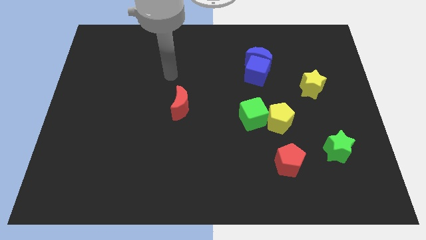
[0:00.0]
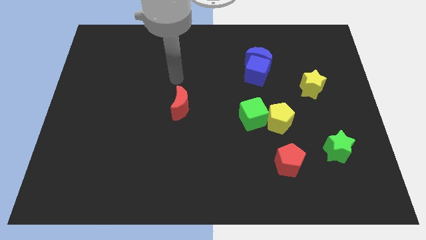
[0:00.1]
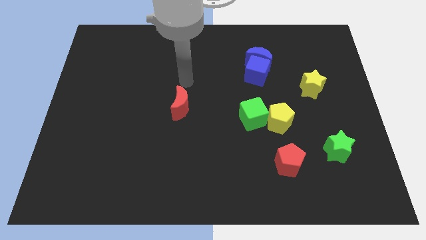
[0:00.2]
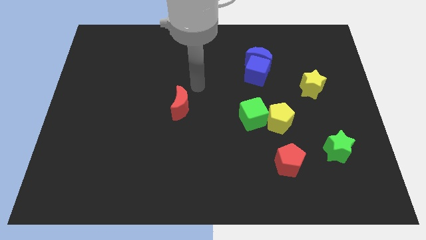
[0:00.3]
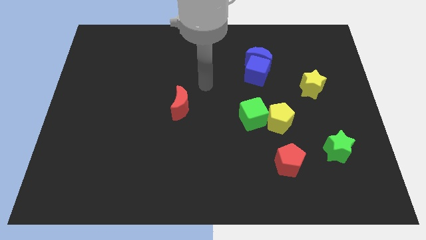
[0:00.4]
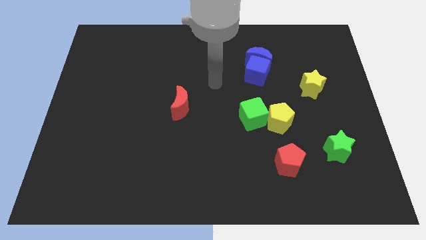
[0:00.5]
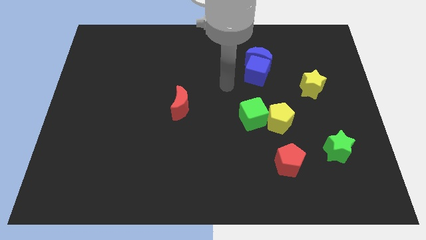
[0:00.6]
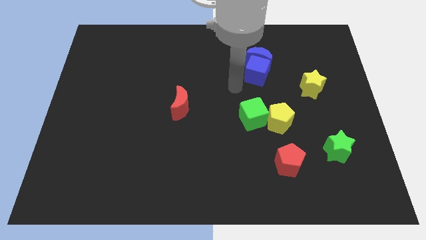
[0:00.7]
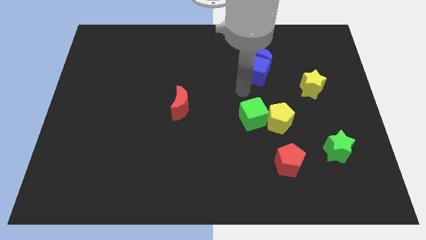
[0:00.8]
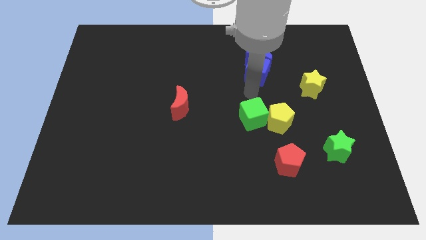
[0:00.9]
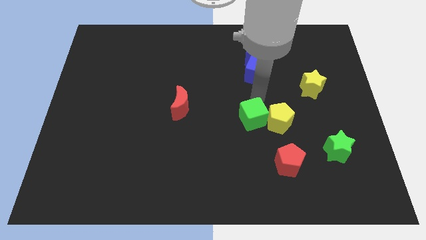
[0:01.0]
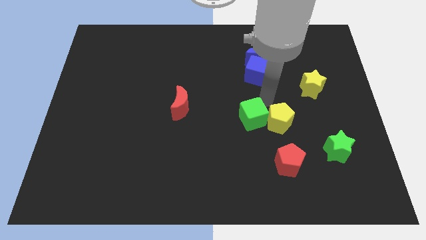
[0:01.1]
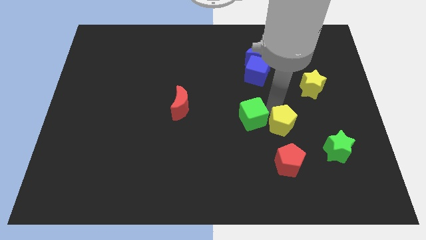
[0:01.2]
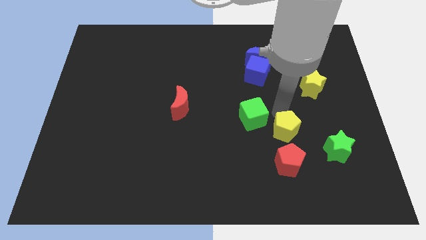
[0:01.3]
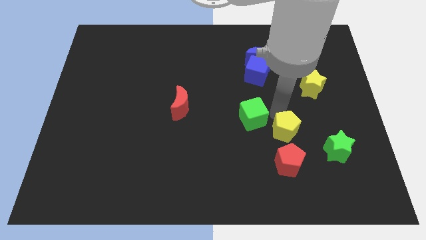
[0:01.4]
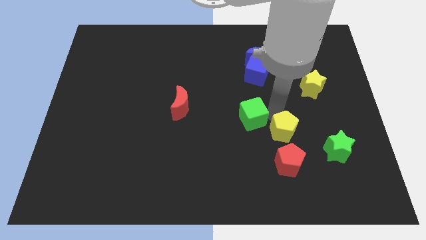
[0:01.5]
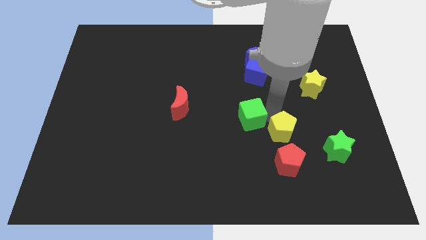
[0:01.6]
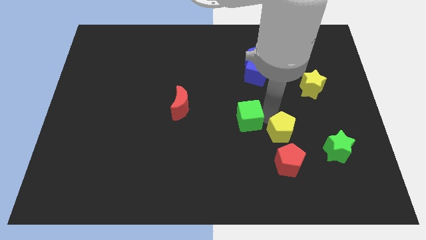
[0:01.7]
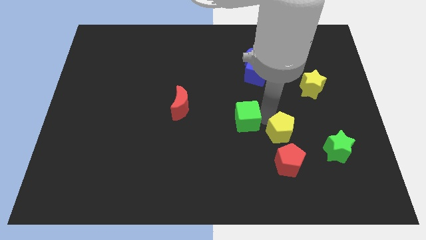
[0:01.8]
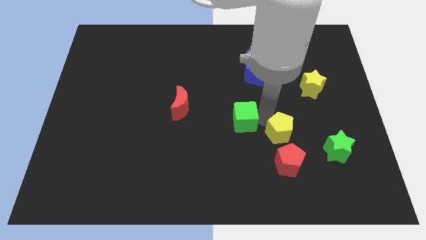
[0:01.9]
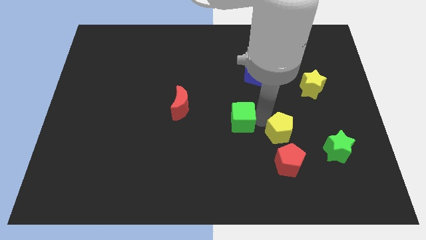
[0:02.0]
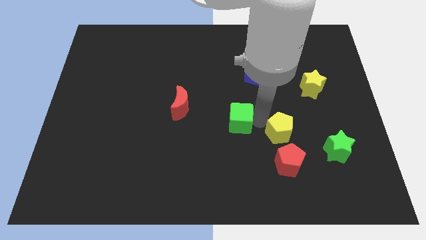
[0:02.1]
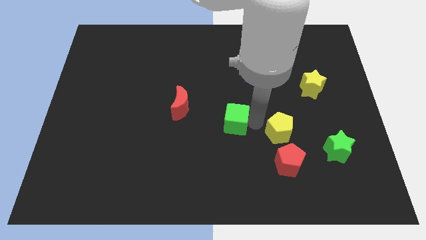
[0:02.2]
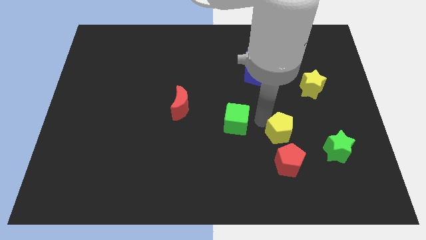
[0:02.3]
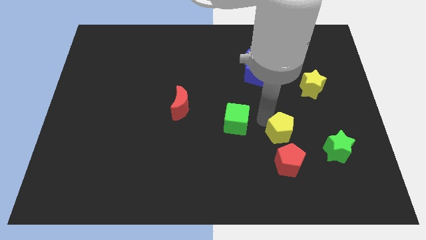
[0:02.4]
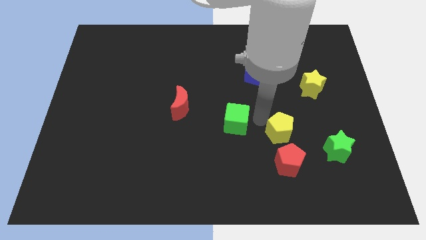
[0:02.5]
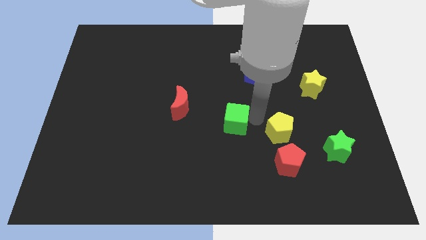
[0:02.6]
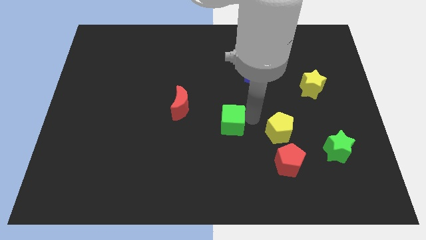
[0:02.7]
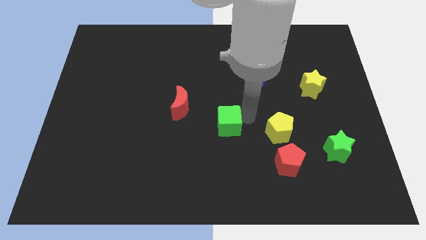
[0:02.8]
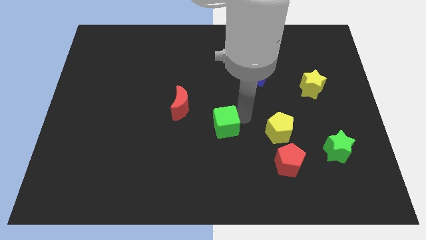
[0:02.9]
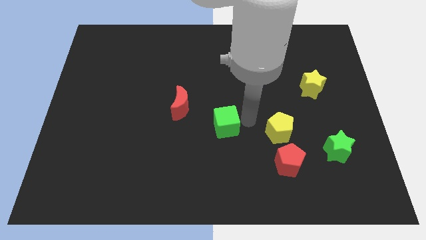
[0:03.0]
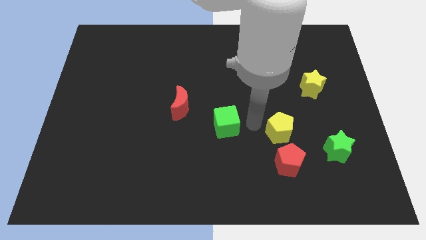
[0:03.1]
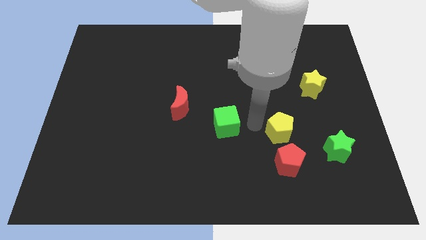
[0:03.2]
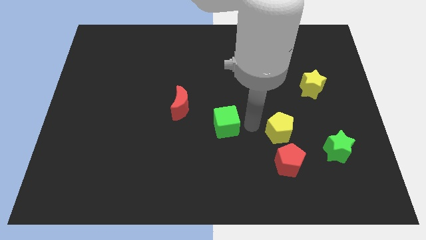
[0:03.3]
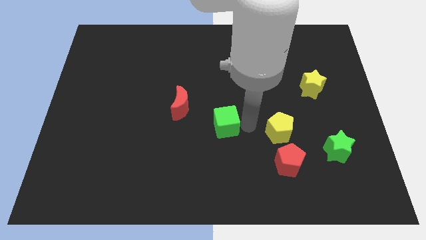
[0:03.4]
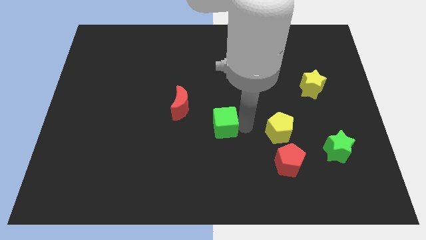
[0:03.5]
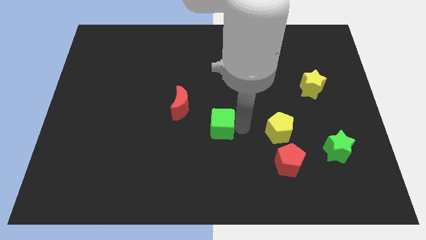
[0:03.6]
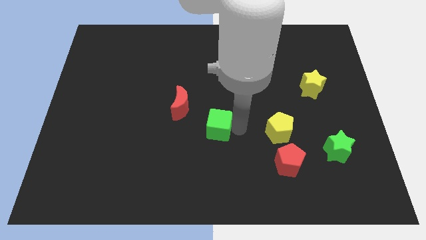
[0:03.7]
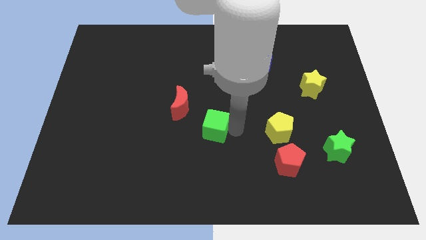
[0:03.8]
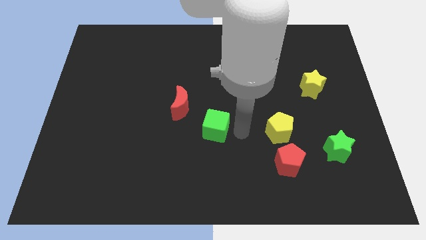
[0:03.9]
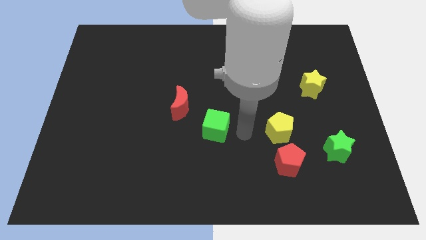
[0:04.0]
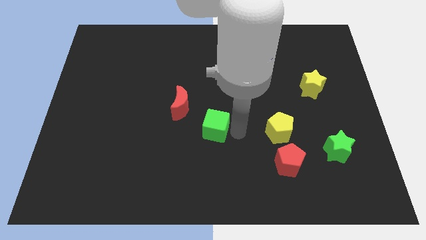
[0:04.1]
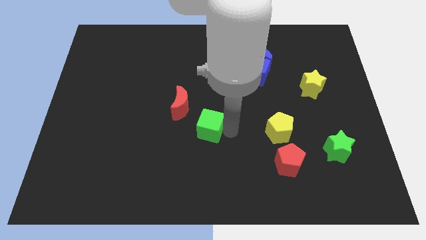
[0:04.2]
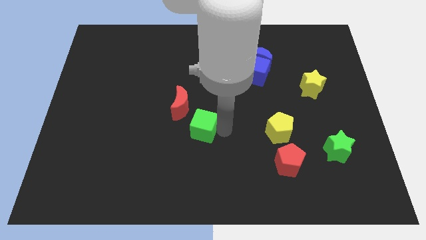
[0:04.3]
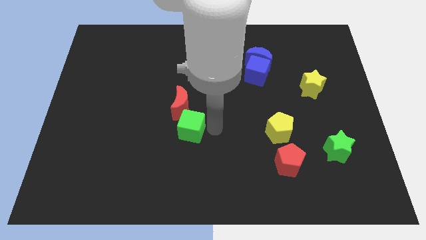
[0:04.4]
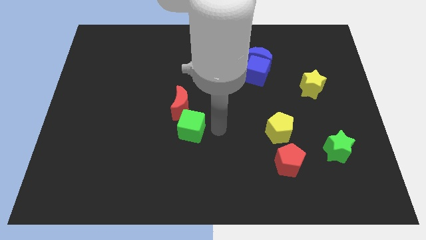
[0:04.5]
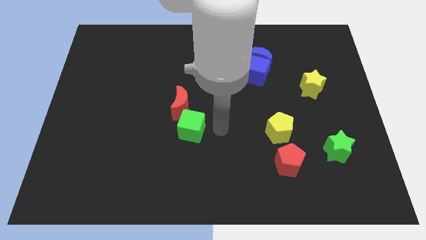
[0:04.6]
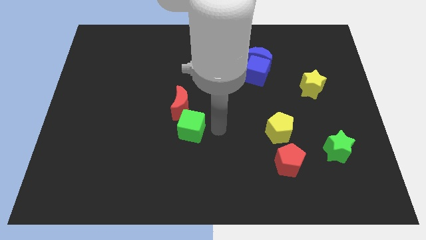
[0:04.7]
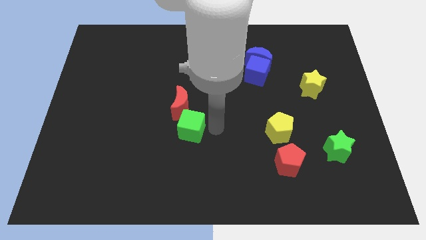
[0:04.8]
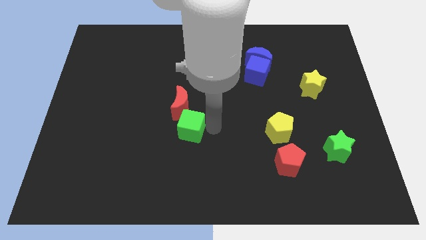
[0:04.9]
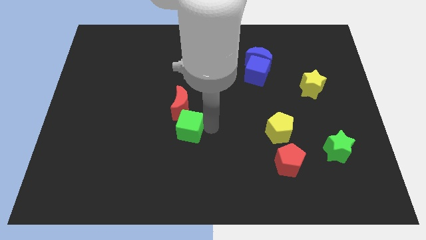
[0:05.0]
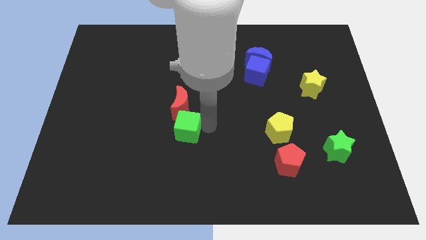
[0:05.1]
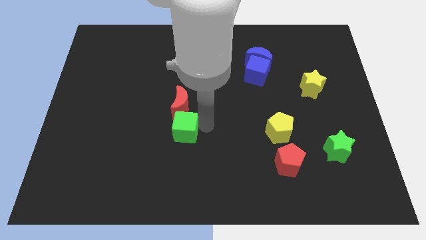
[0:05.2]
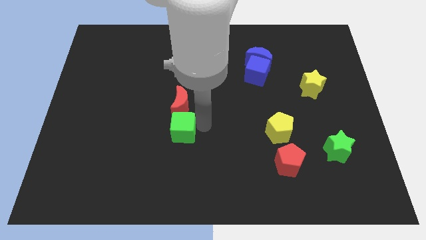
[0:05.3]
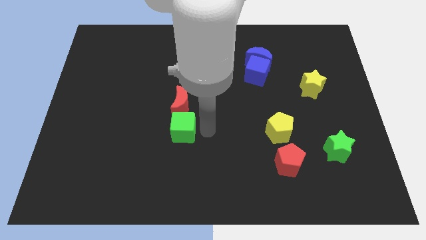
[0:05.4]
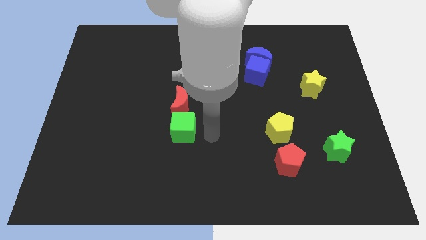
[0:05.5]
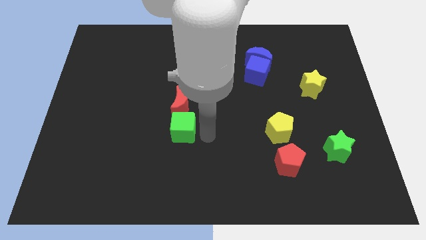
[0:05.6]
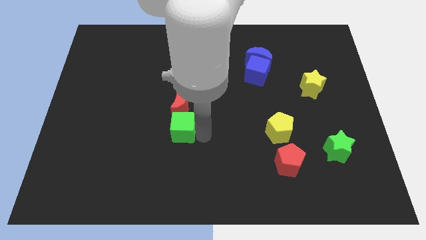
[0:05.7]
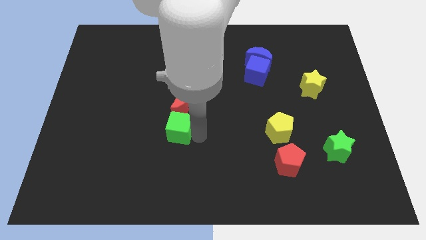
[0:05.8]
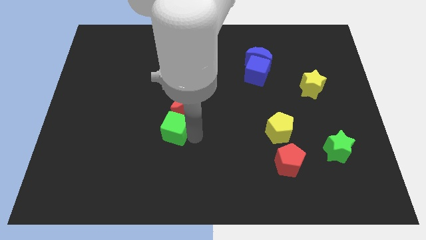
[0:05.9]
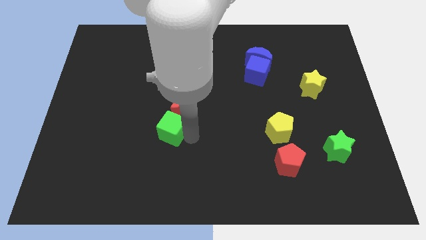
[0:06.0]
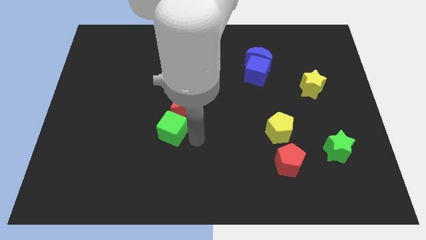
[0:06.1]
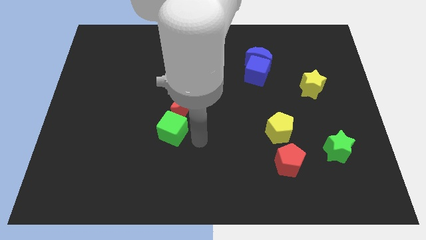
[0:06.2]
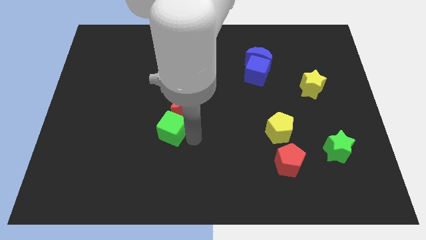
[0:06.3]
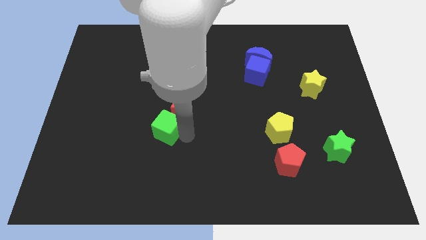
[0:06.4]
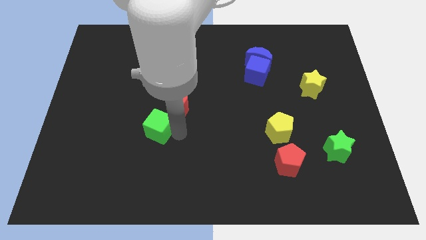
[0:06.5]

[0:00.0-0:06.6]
push the green cube to the left

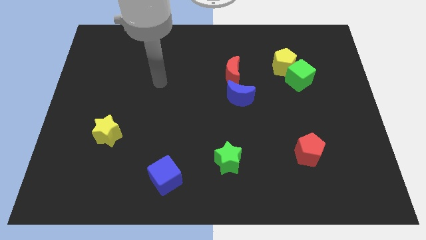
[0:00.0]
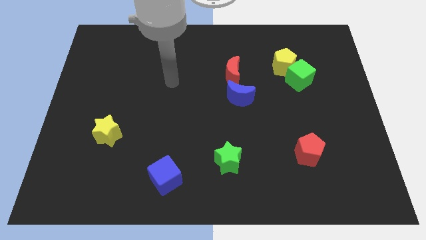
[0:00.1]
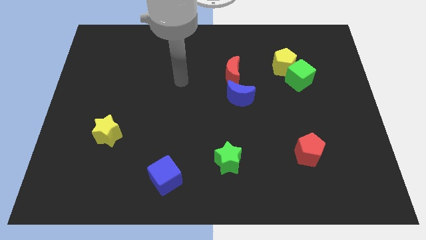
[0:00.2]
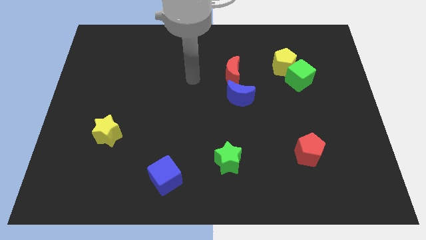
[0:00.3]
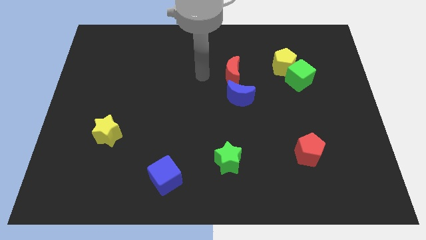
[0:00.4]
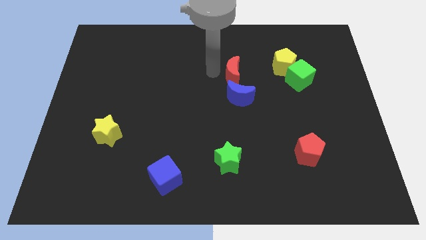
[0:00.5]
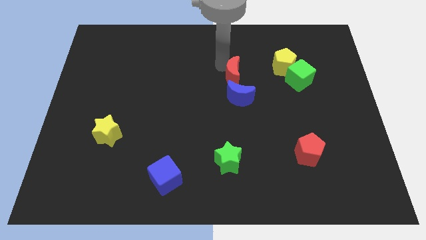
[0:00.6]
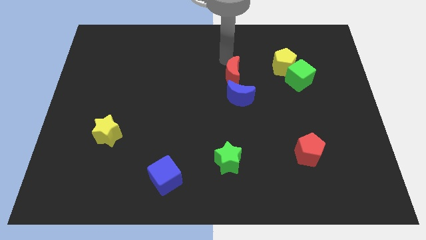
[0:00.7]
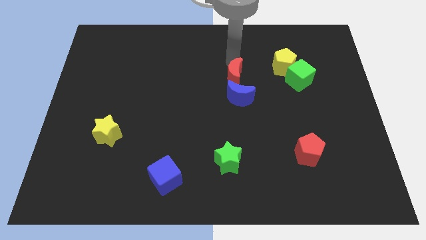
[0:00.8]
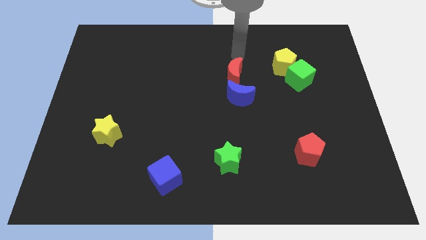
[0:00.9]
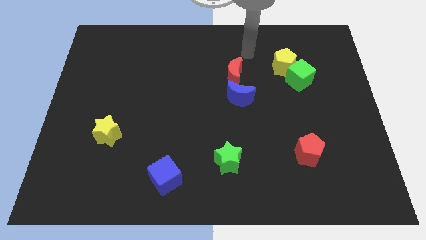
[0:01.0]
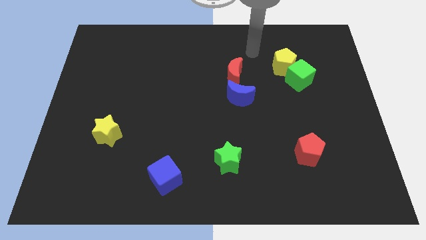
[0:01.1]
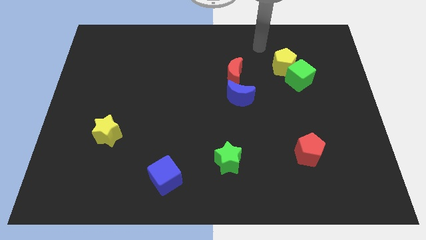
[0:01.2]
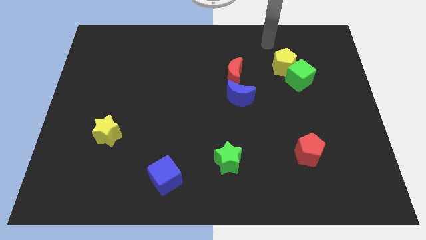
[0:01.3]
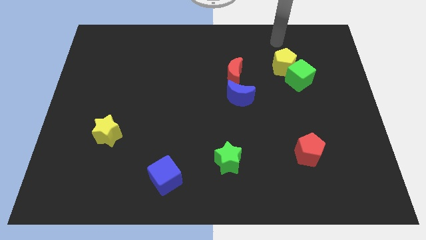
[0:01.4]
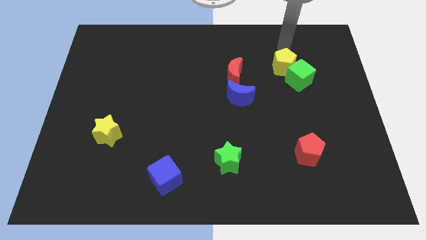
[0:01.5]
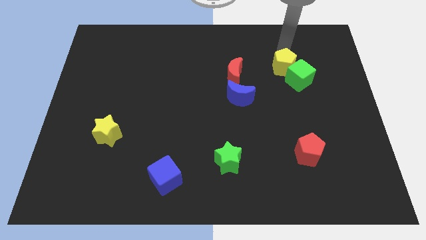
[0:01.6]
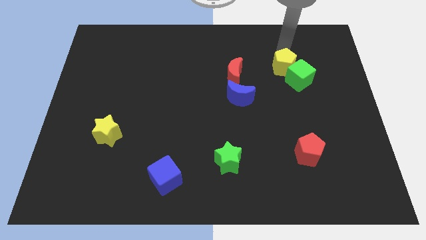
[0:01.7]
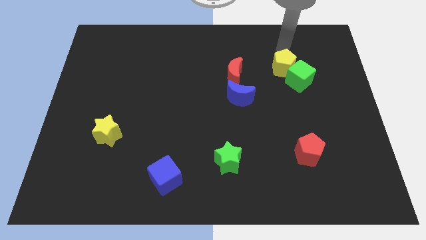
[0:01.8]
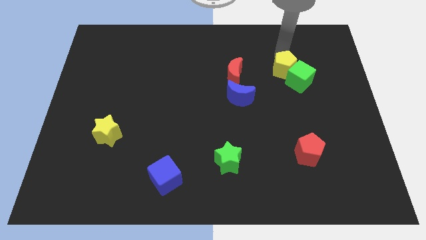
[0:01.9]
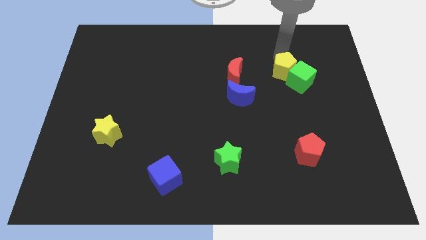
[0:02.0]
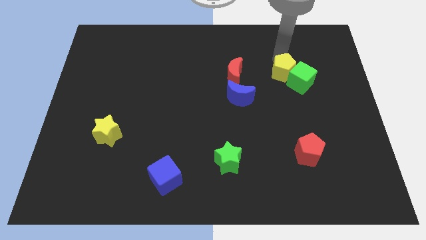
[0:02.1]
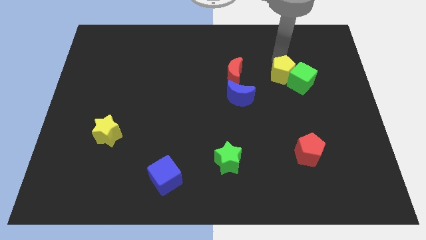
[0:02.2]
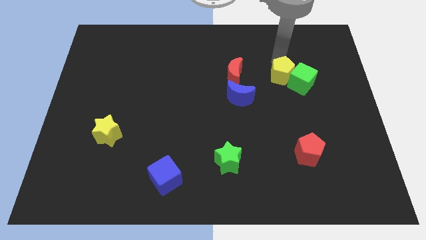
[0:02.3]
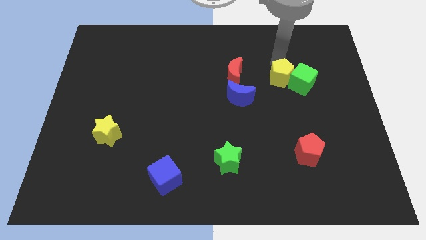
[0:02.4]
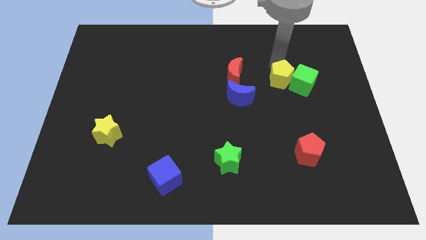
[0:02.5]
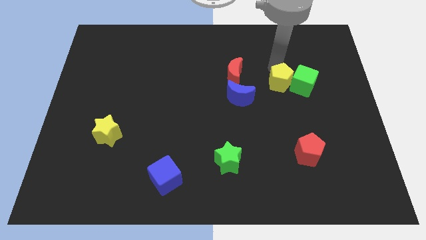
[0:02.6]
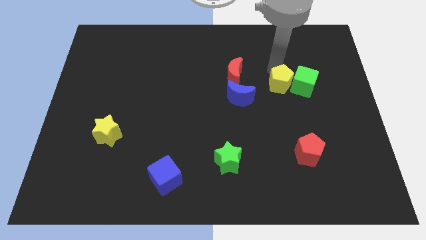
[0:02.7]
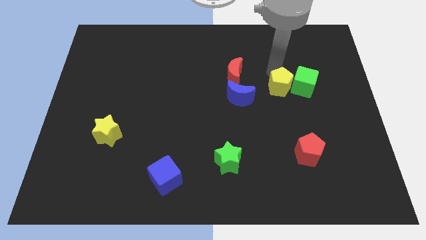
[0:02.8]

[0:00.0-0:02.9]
push the yellow pentagon a little down
